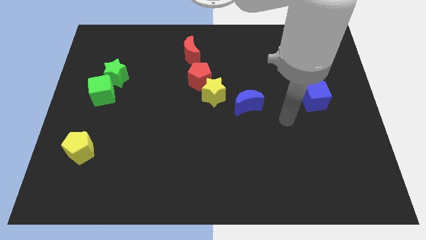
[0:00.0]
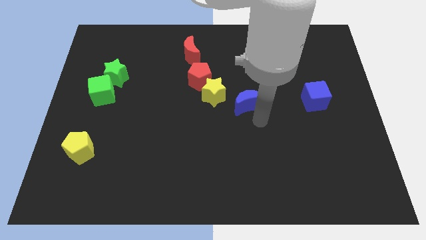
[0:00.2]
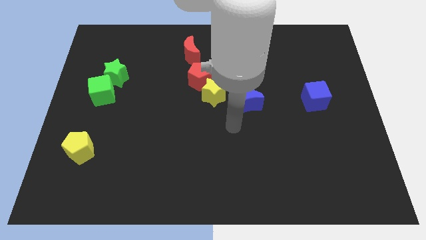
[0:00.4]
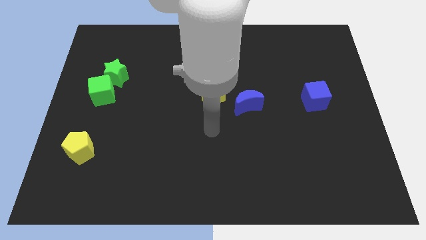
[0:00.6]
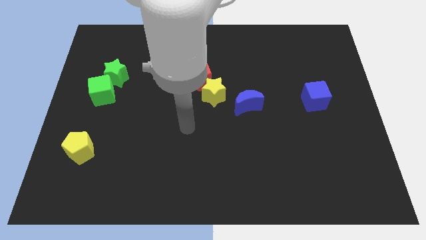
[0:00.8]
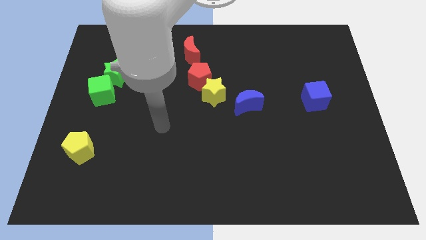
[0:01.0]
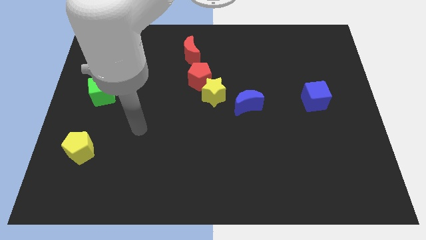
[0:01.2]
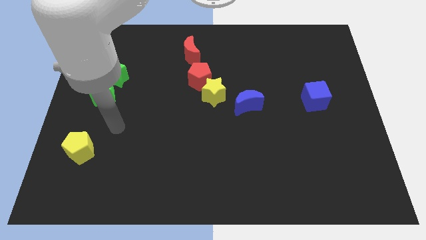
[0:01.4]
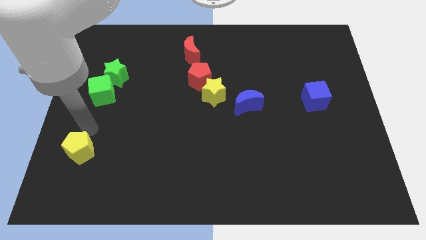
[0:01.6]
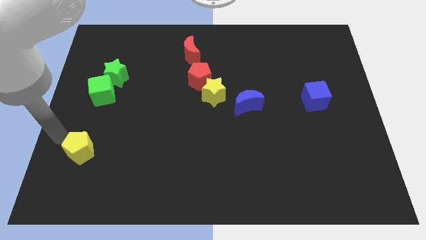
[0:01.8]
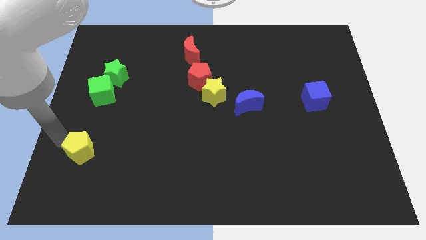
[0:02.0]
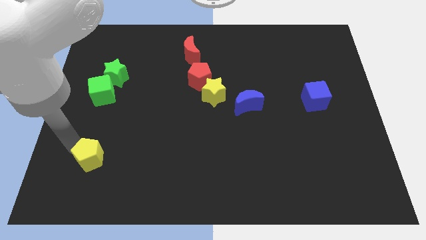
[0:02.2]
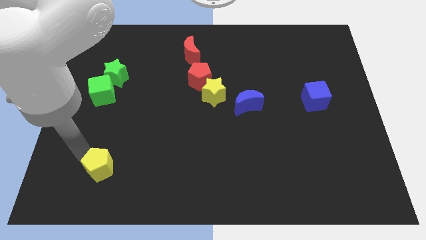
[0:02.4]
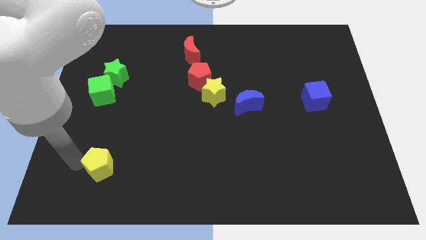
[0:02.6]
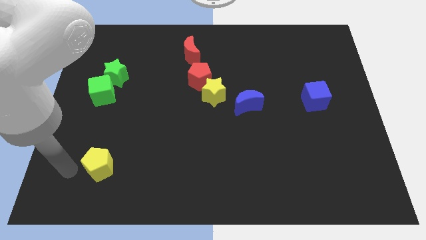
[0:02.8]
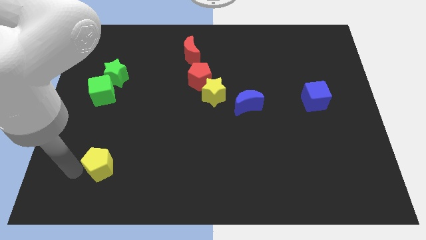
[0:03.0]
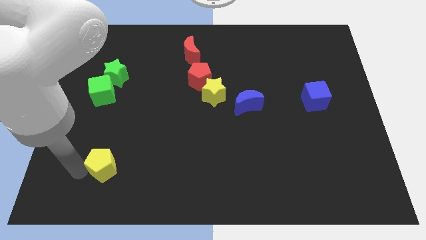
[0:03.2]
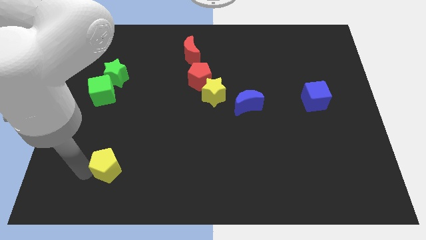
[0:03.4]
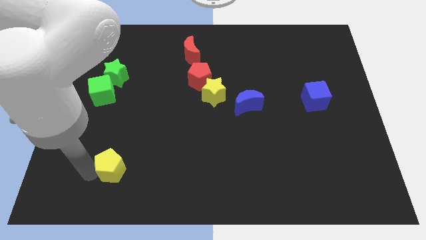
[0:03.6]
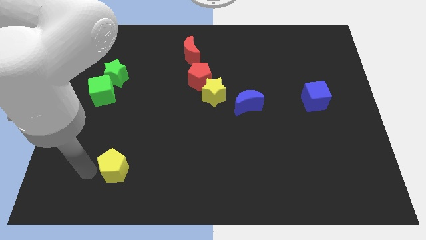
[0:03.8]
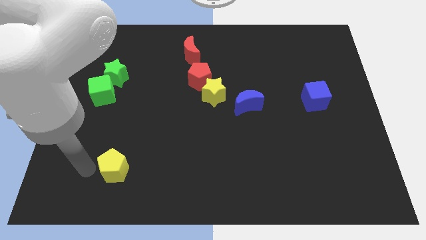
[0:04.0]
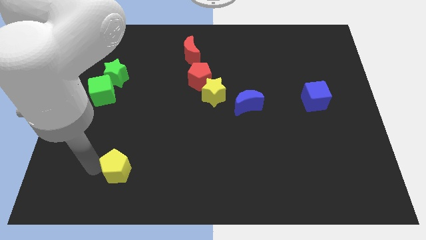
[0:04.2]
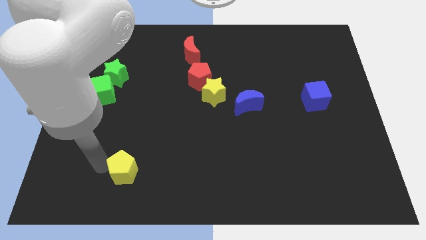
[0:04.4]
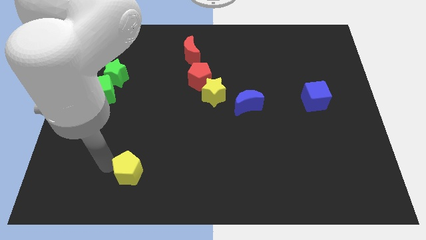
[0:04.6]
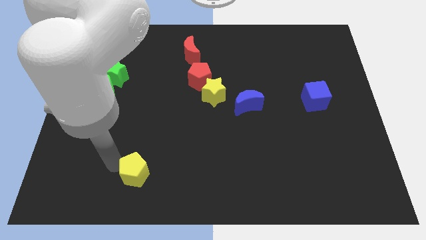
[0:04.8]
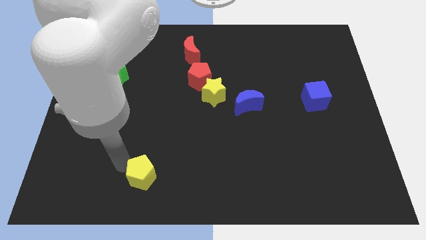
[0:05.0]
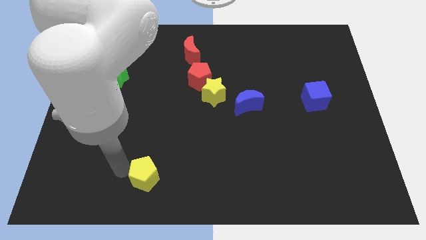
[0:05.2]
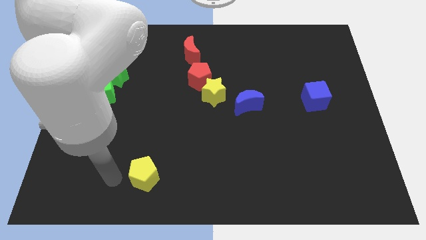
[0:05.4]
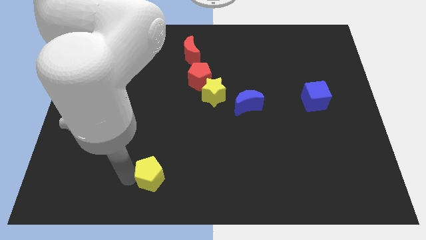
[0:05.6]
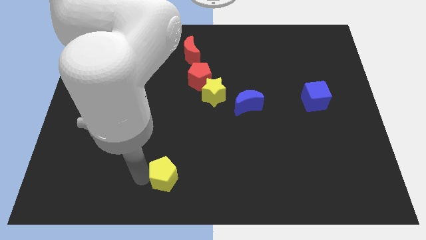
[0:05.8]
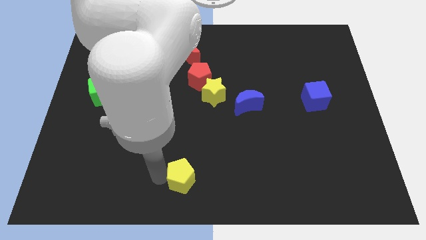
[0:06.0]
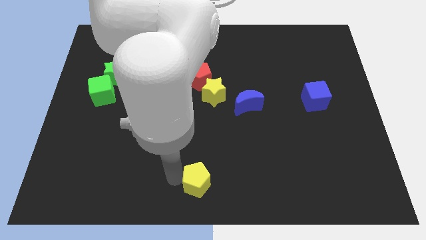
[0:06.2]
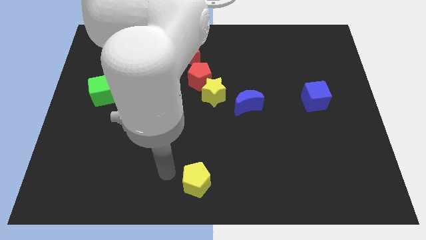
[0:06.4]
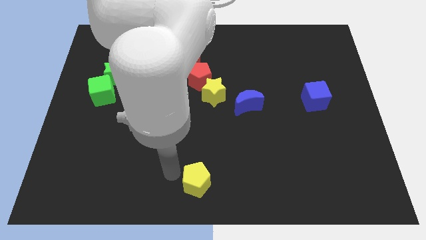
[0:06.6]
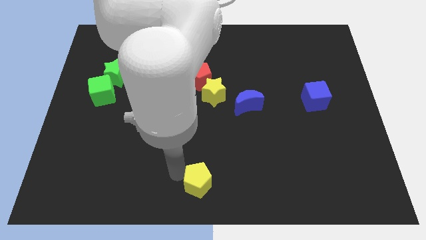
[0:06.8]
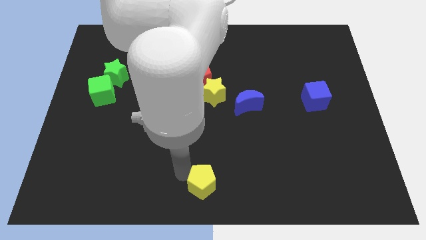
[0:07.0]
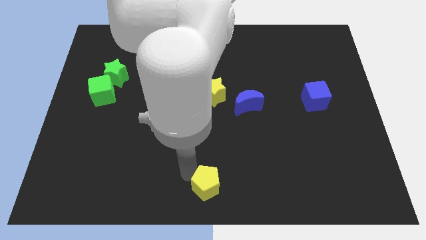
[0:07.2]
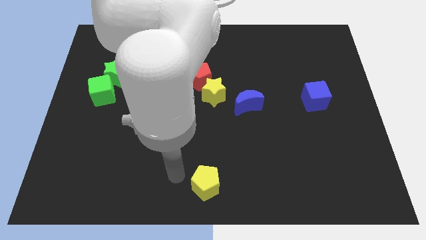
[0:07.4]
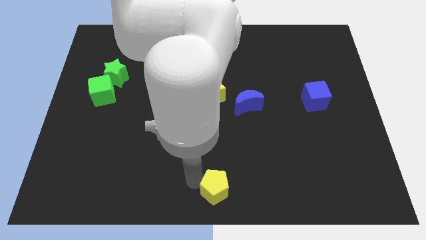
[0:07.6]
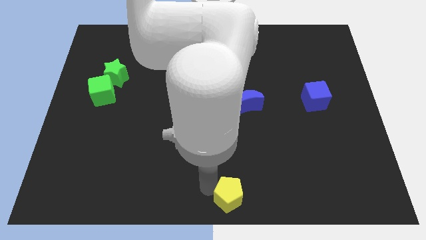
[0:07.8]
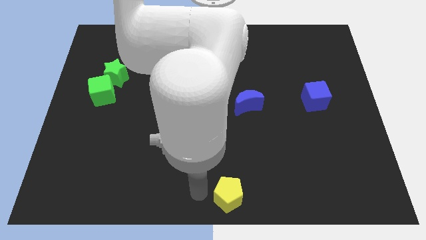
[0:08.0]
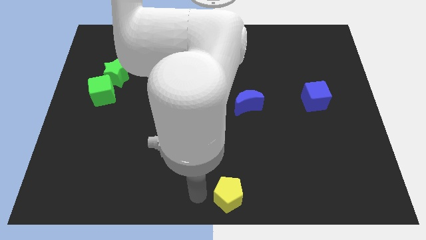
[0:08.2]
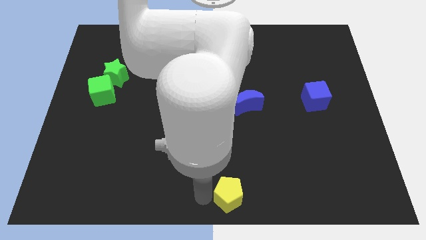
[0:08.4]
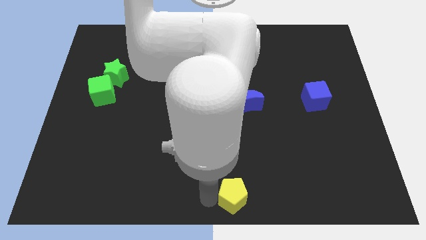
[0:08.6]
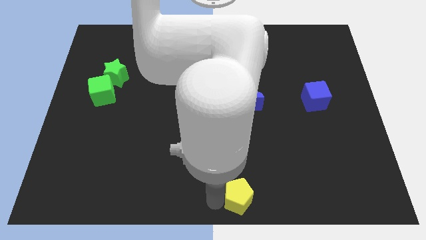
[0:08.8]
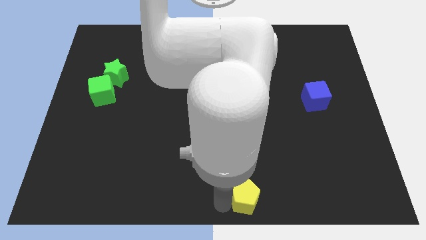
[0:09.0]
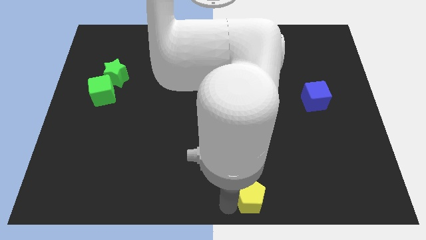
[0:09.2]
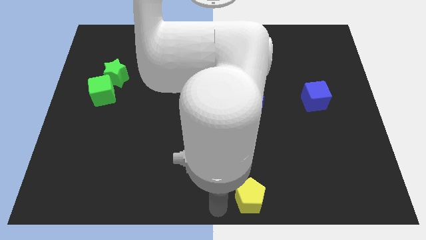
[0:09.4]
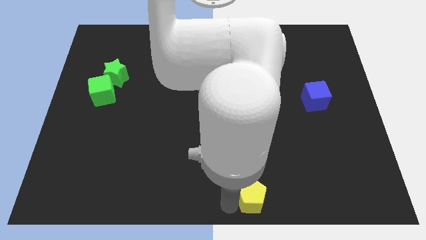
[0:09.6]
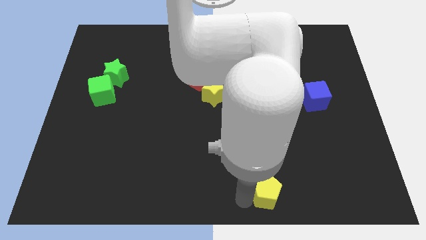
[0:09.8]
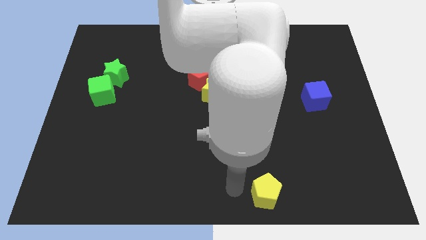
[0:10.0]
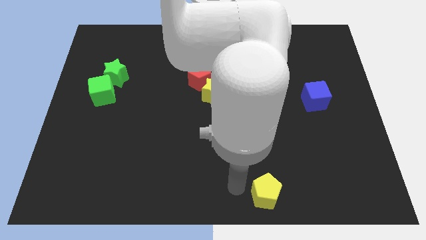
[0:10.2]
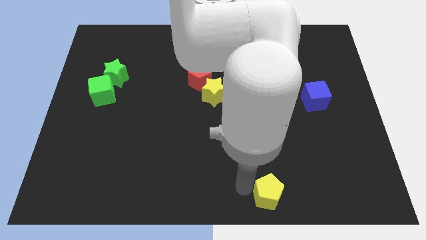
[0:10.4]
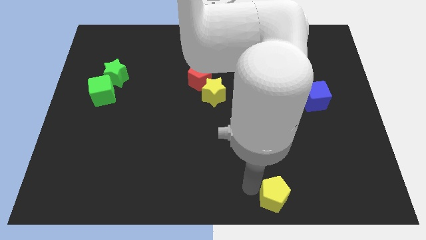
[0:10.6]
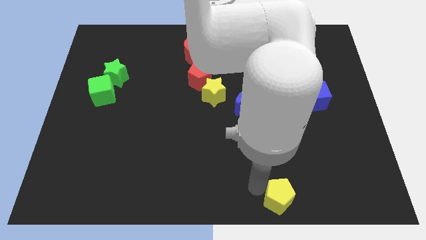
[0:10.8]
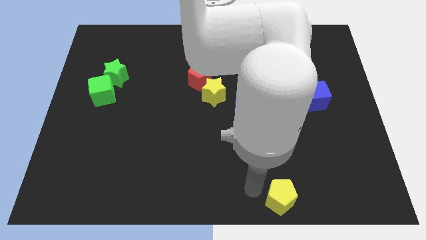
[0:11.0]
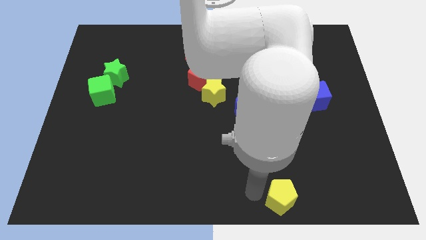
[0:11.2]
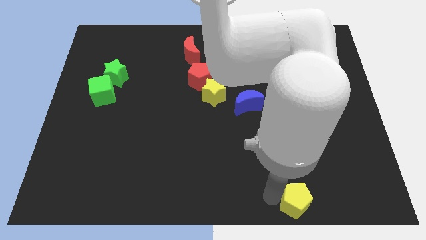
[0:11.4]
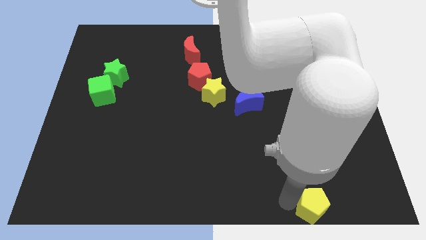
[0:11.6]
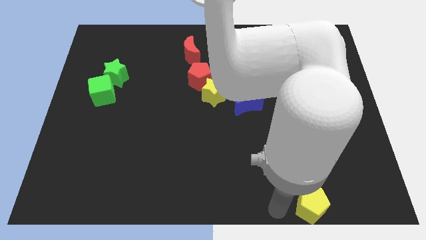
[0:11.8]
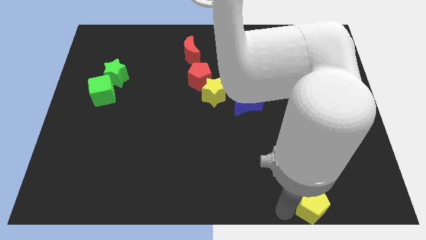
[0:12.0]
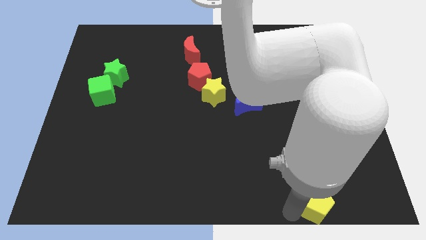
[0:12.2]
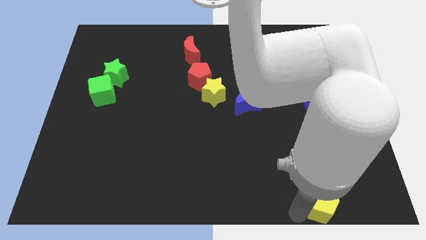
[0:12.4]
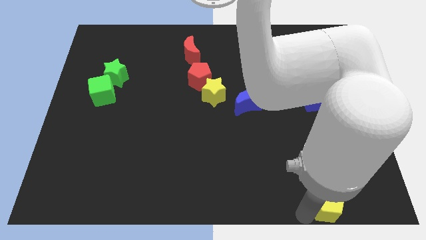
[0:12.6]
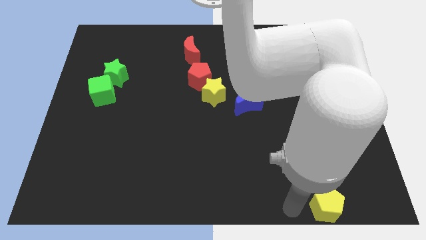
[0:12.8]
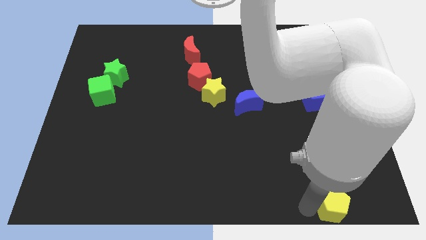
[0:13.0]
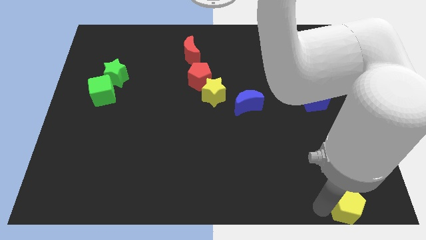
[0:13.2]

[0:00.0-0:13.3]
push the yellow pentagon to the lower right corner
